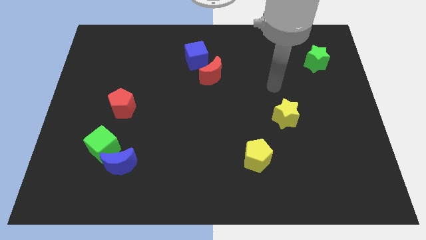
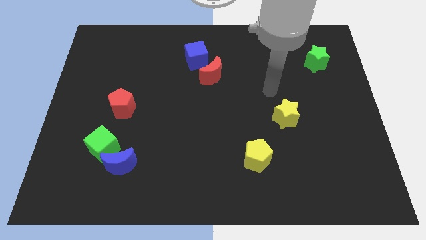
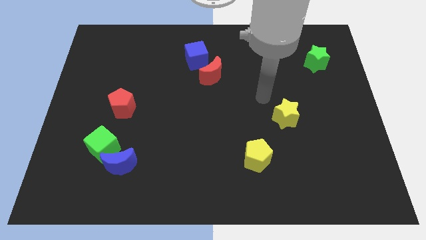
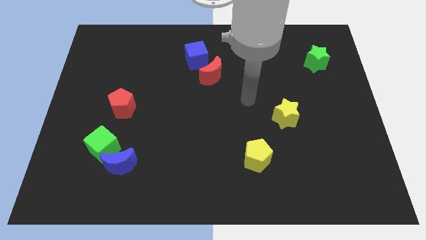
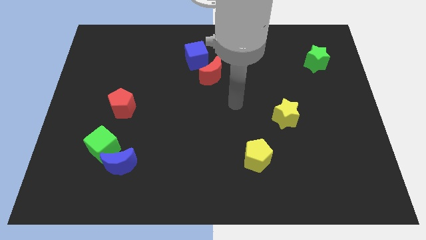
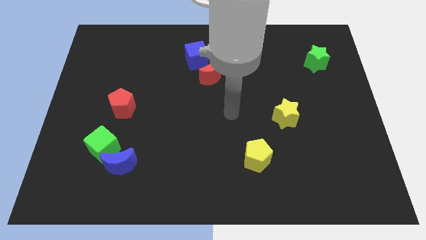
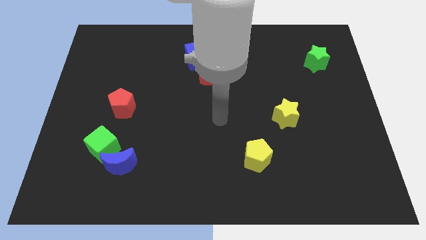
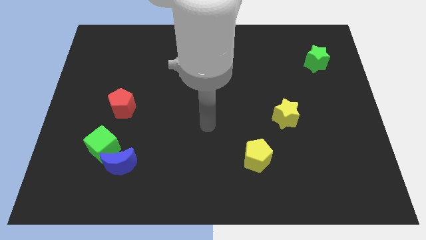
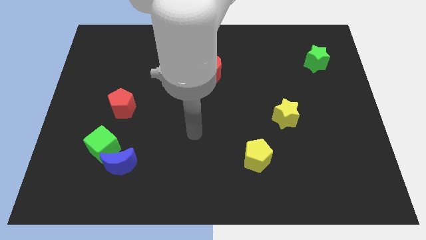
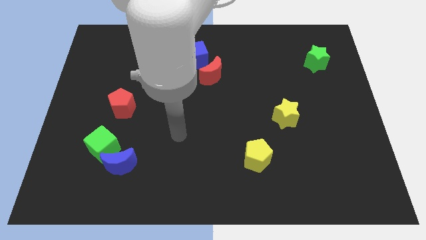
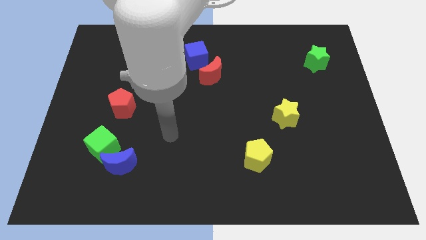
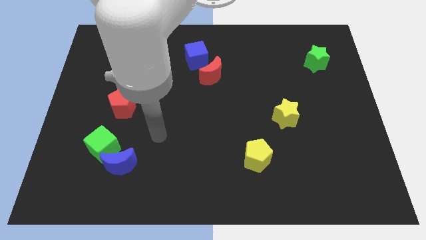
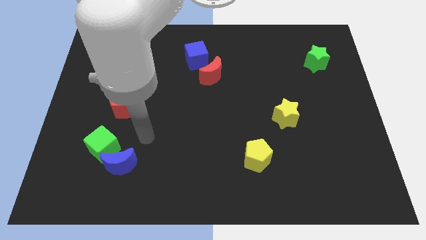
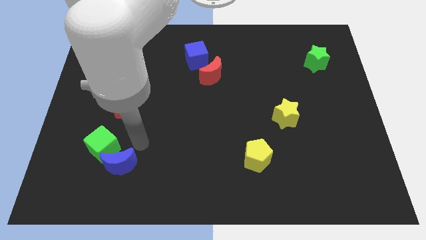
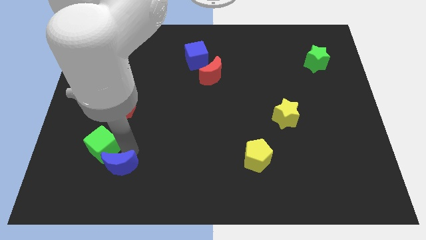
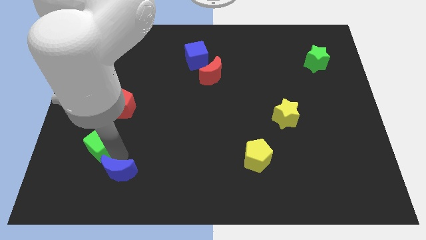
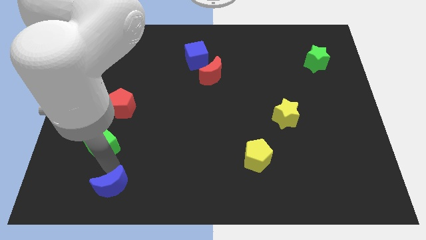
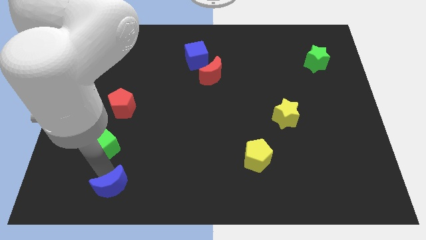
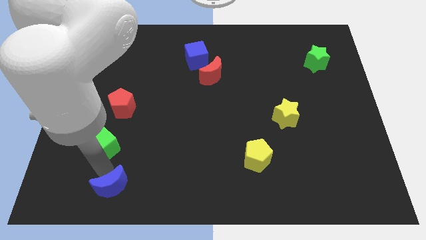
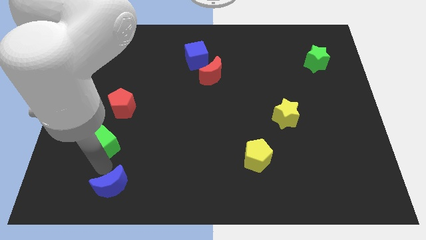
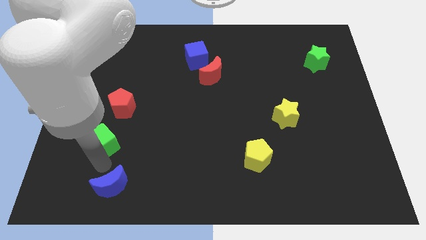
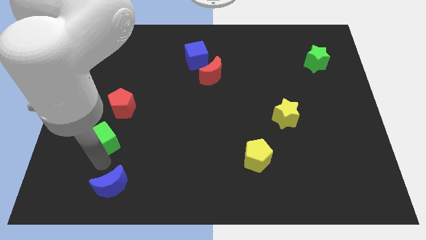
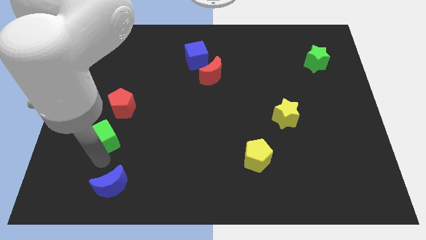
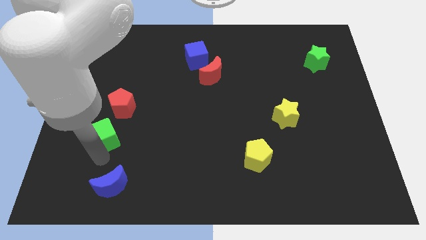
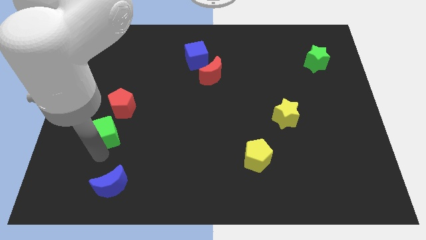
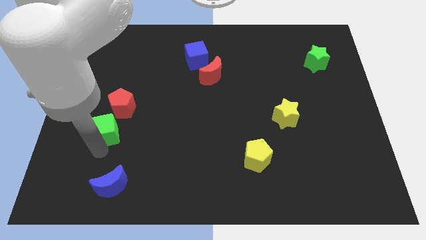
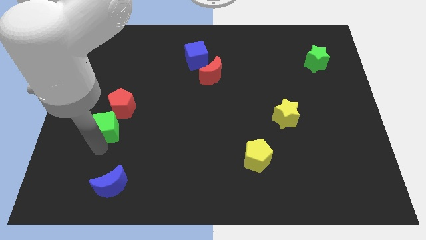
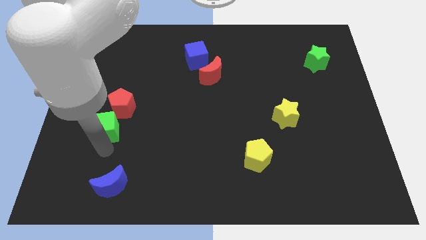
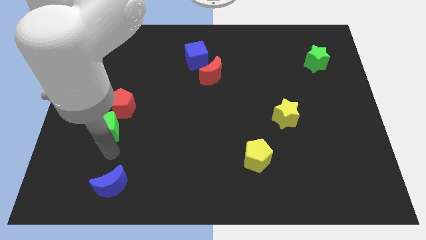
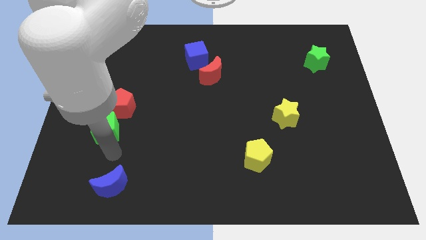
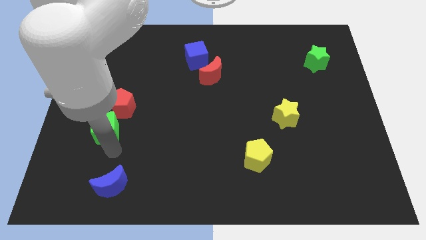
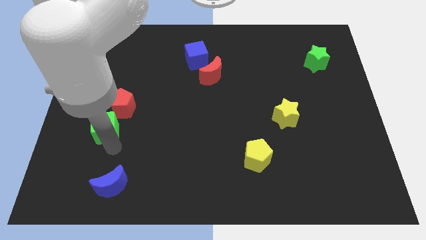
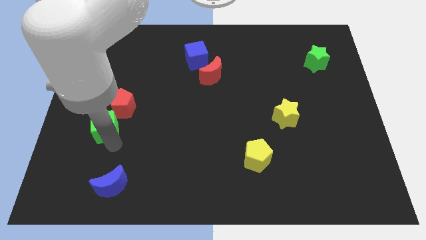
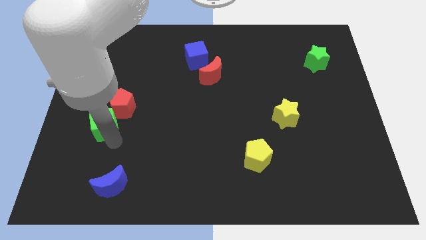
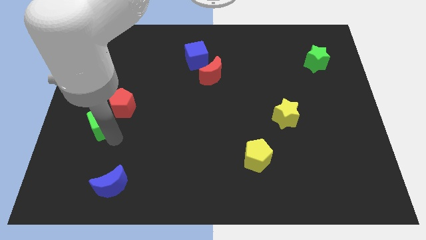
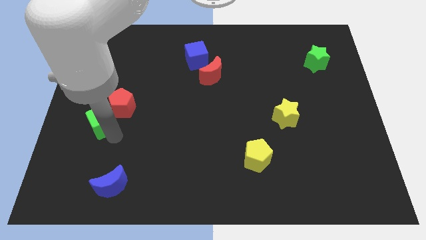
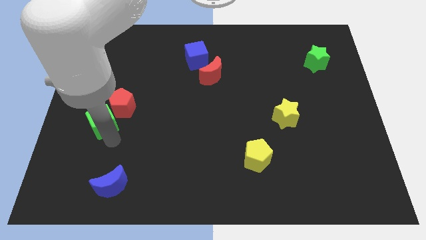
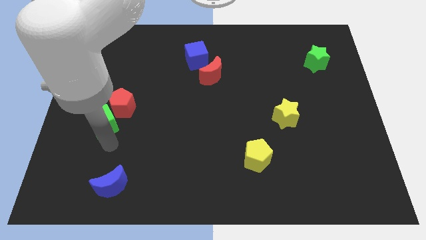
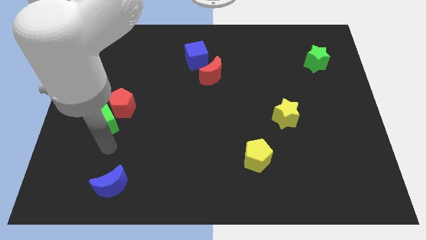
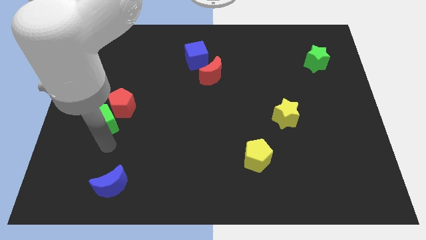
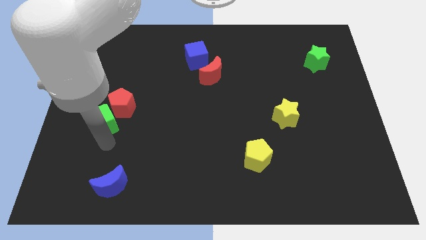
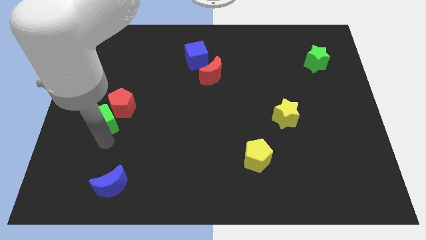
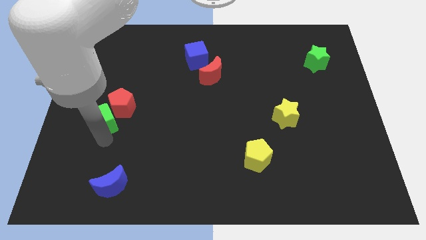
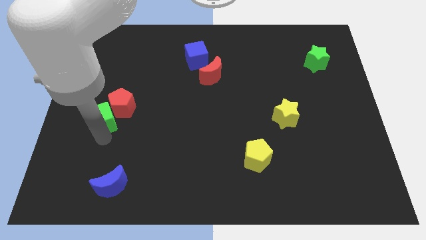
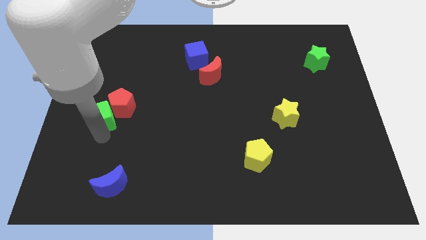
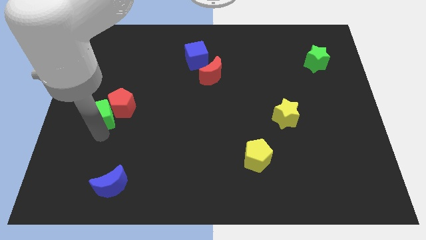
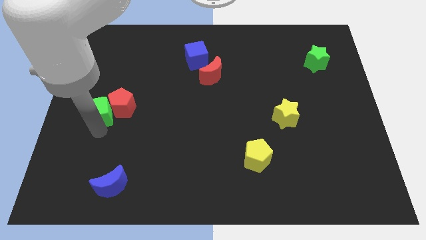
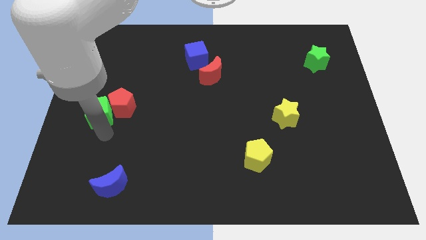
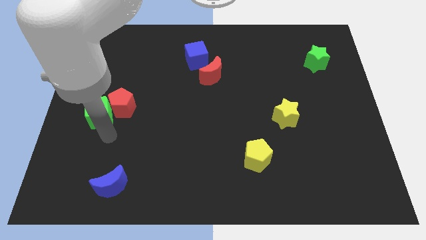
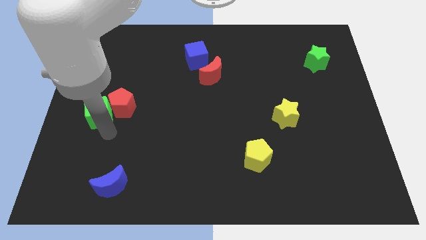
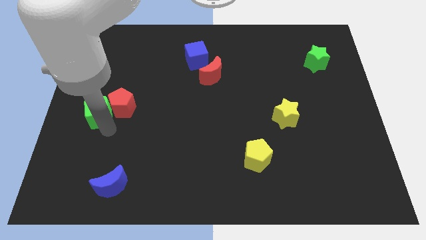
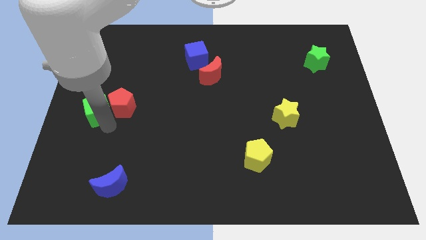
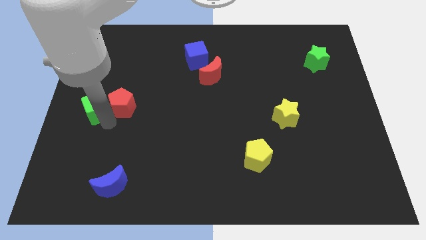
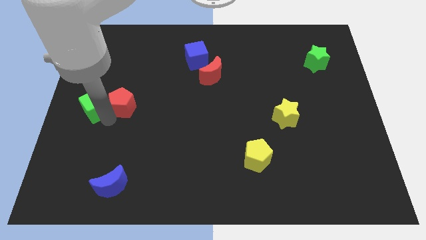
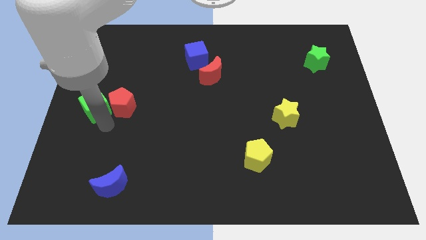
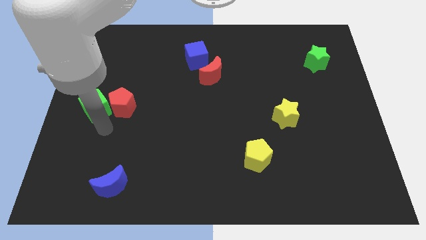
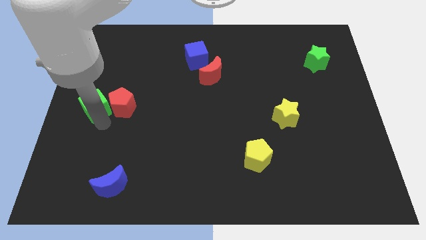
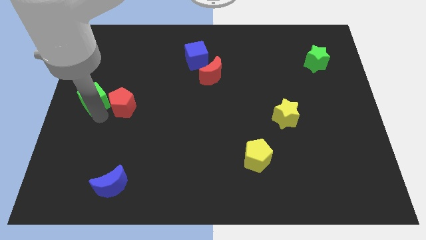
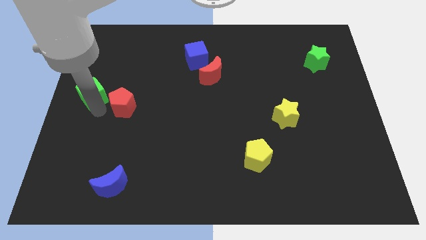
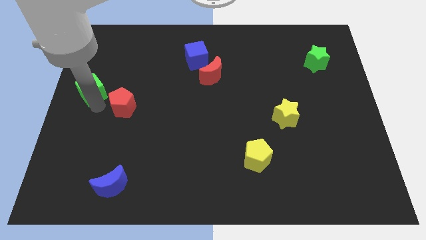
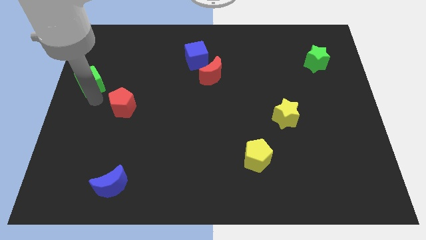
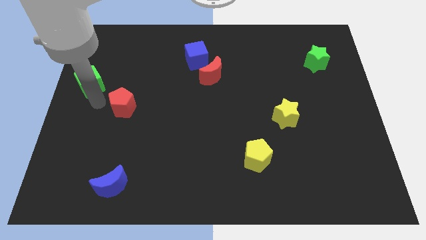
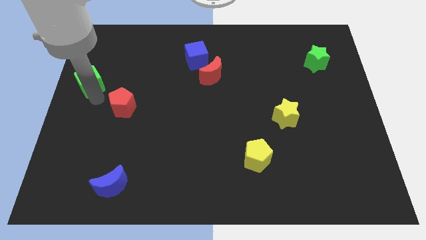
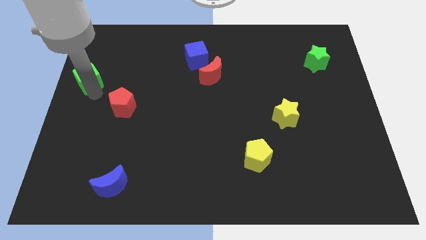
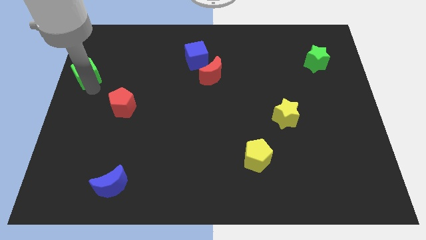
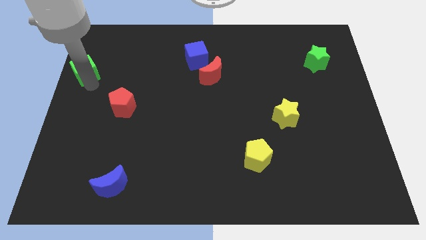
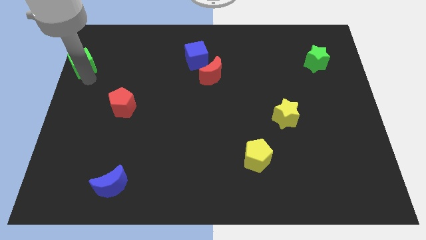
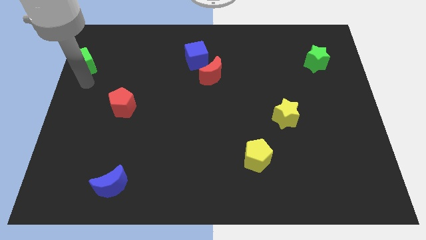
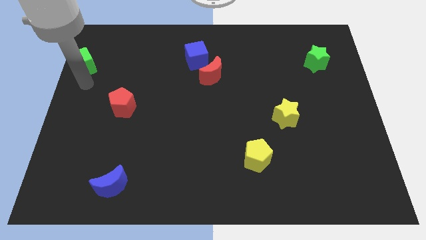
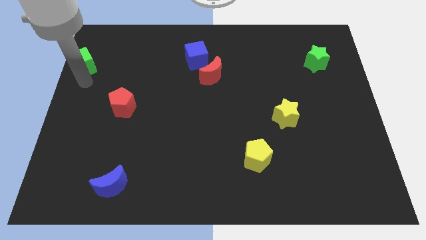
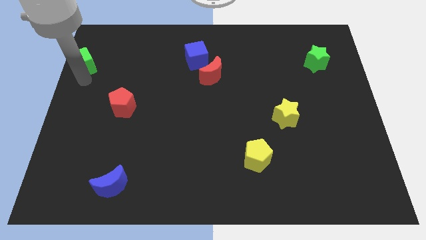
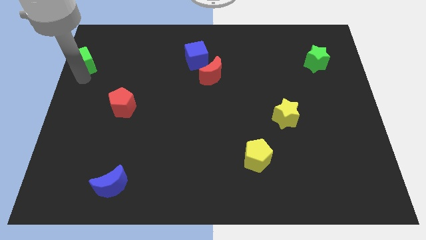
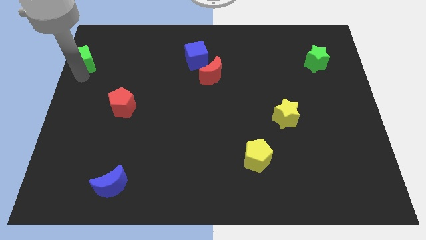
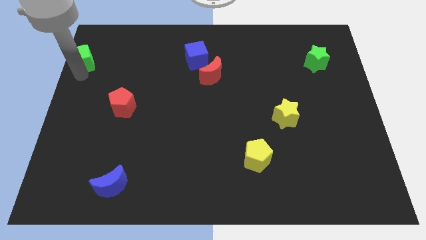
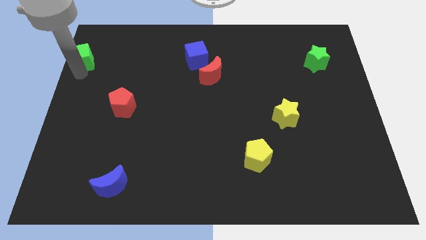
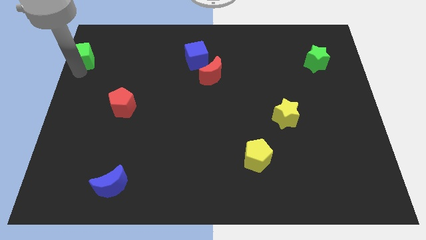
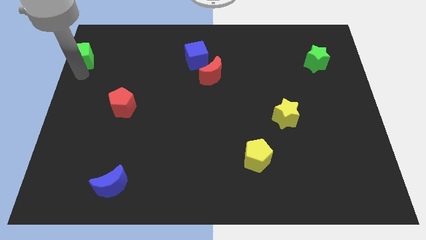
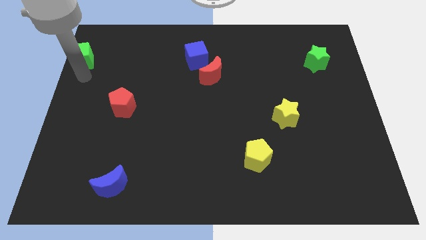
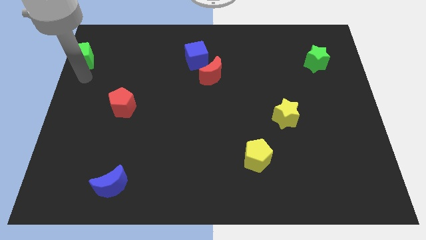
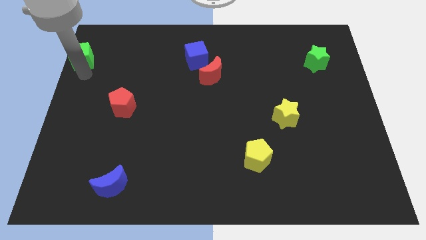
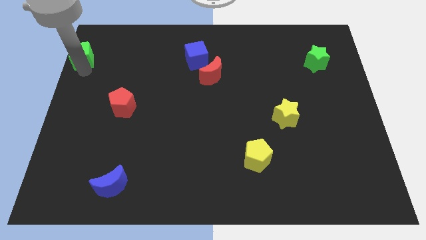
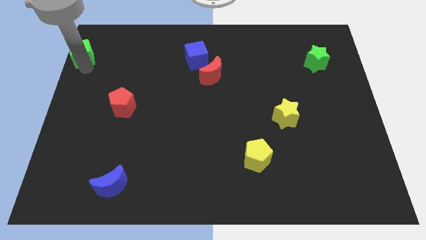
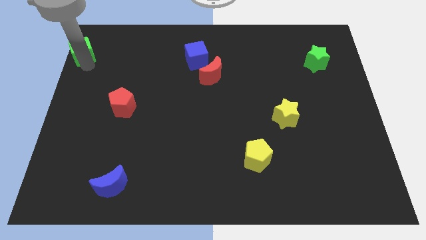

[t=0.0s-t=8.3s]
move the green cube to the top left corner
